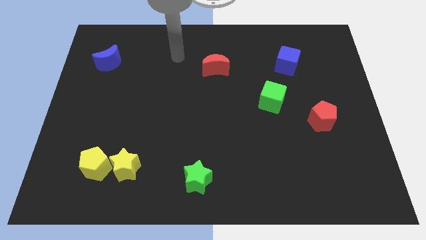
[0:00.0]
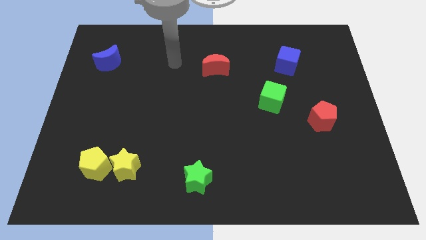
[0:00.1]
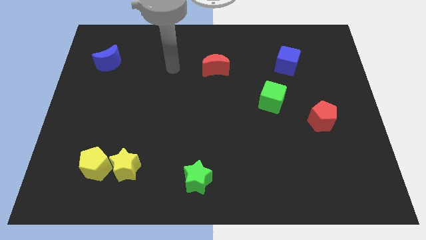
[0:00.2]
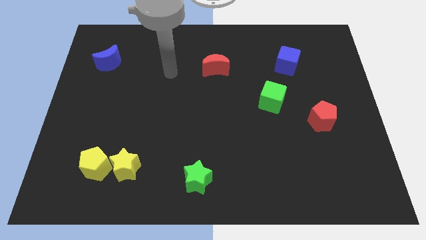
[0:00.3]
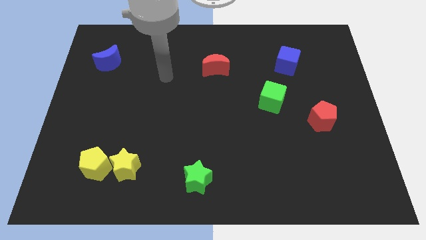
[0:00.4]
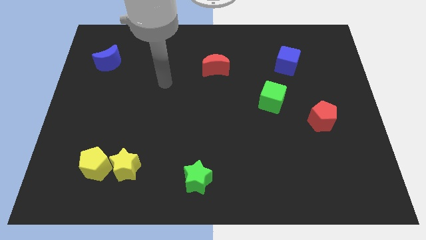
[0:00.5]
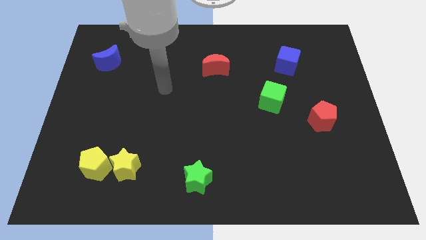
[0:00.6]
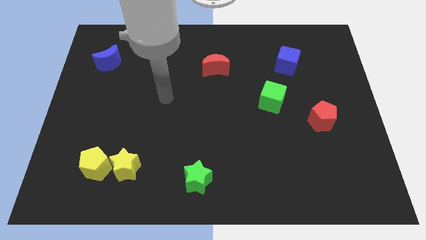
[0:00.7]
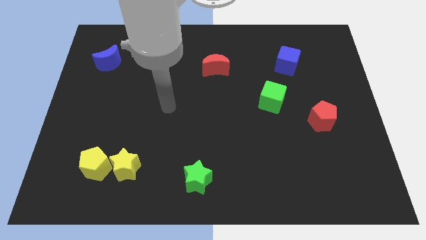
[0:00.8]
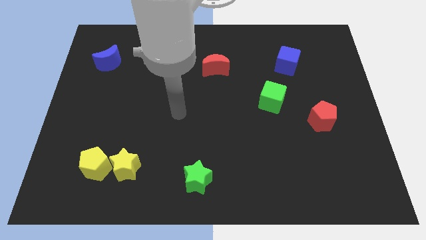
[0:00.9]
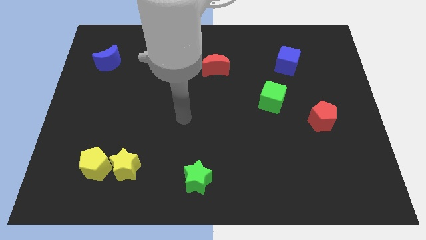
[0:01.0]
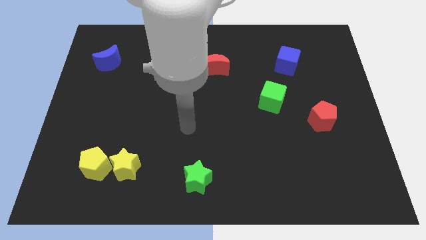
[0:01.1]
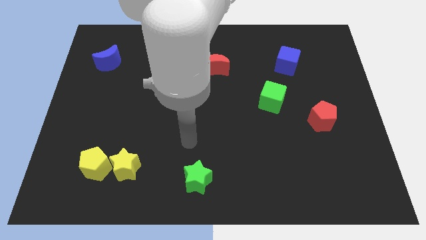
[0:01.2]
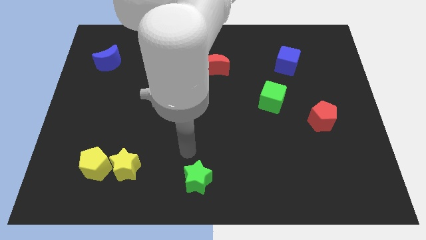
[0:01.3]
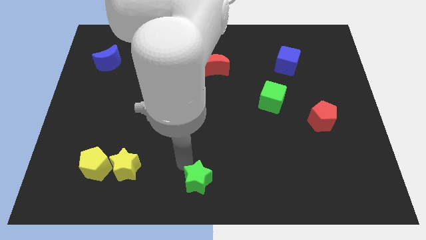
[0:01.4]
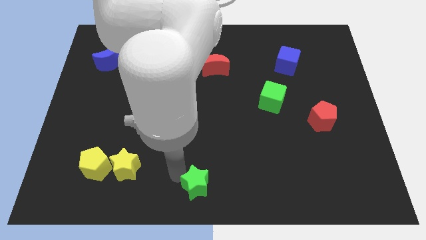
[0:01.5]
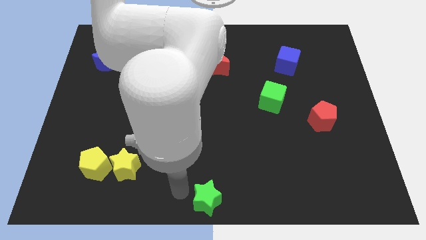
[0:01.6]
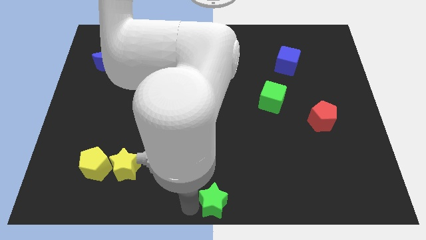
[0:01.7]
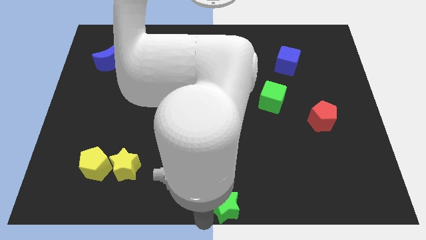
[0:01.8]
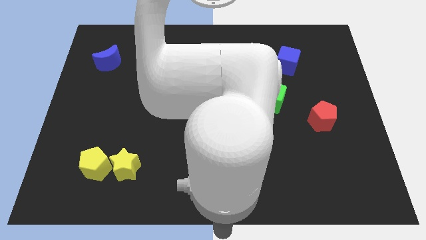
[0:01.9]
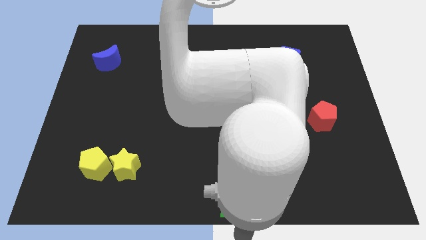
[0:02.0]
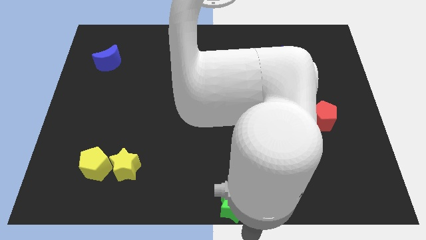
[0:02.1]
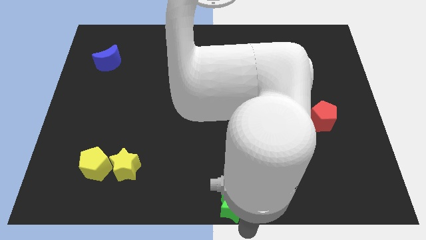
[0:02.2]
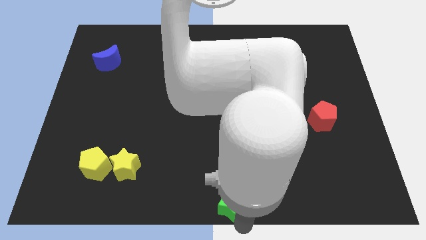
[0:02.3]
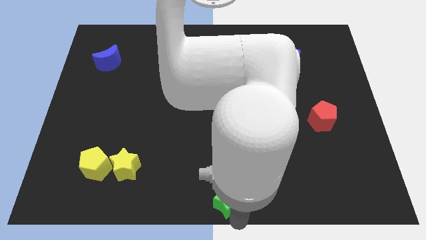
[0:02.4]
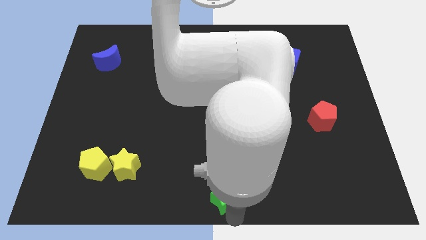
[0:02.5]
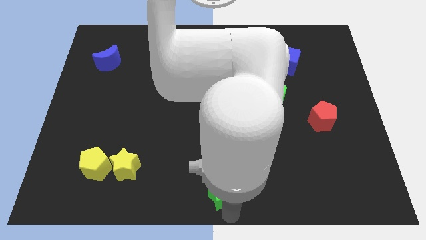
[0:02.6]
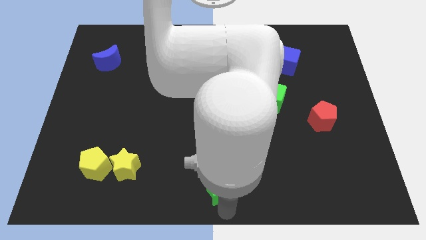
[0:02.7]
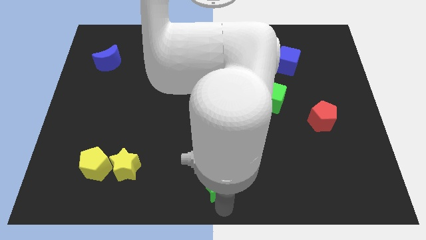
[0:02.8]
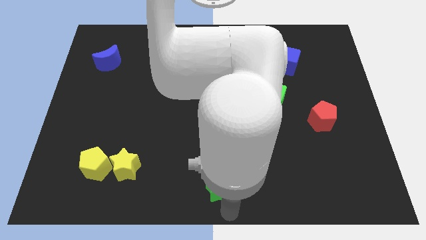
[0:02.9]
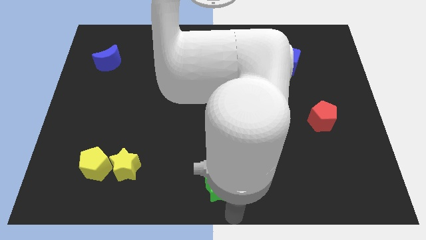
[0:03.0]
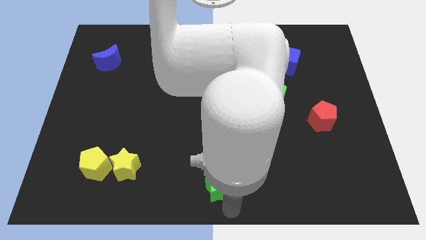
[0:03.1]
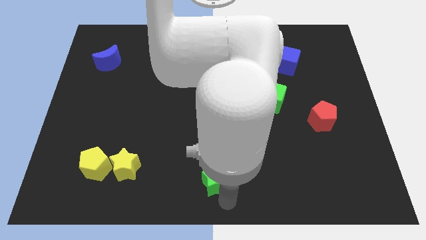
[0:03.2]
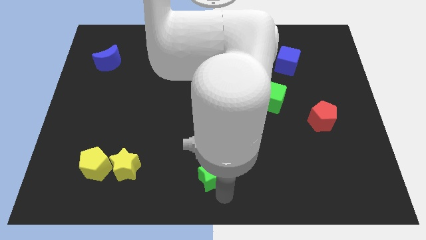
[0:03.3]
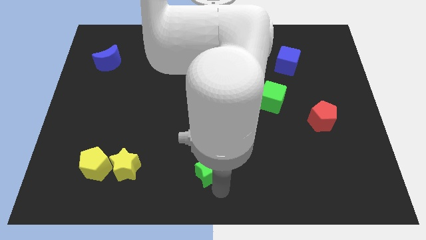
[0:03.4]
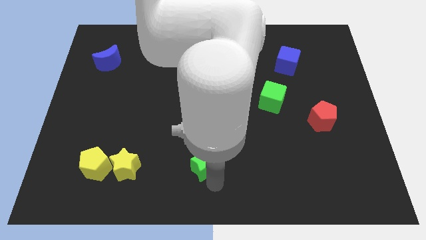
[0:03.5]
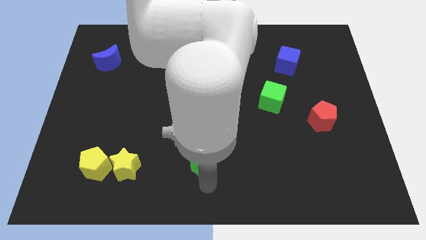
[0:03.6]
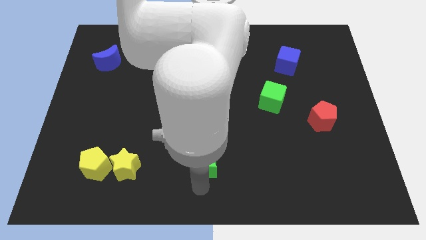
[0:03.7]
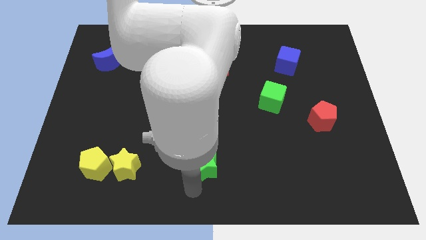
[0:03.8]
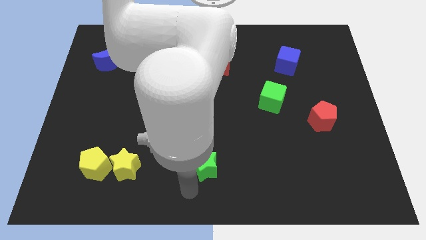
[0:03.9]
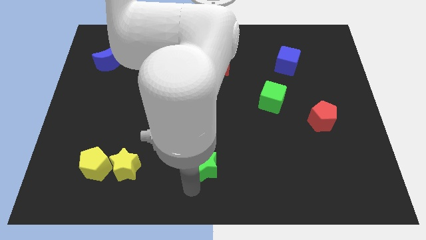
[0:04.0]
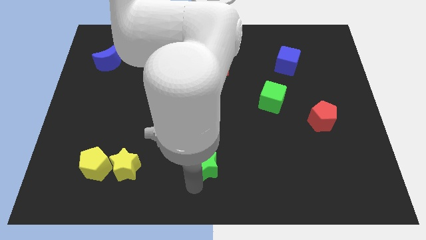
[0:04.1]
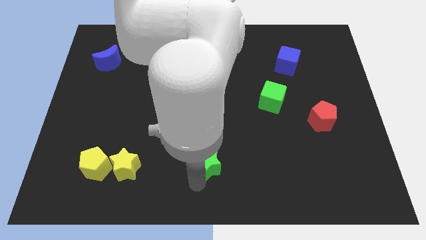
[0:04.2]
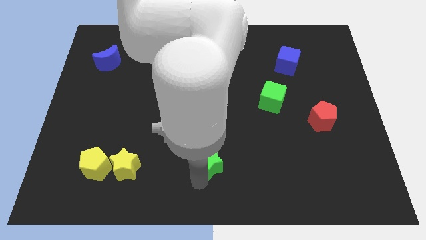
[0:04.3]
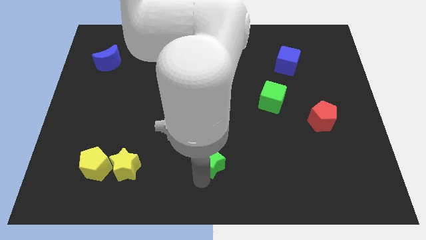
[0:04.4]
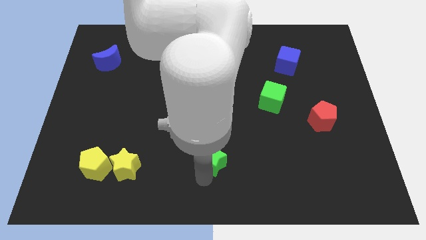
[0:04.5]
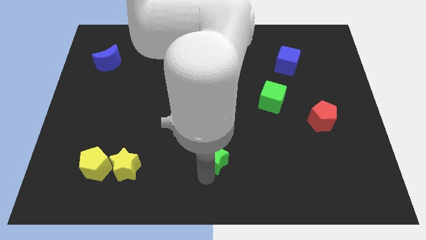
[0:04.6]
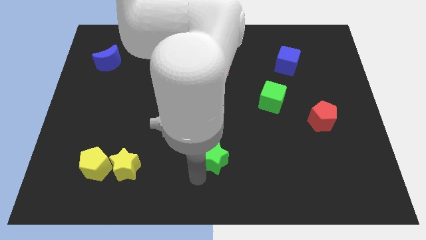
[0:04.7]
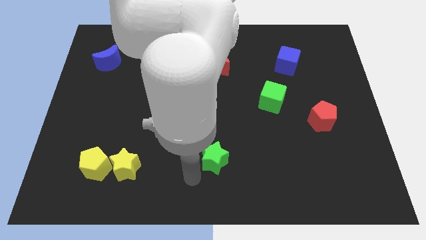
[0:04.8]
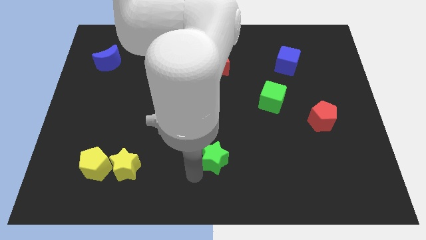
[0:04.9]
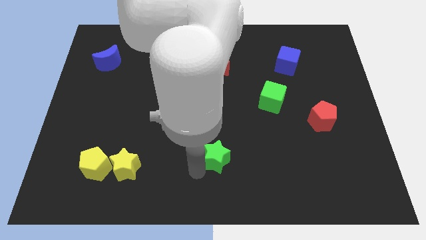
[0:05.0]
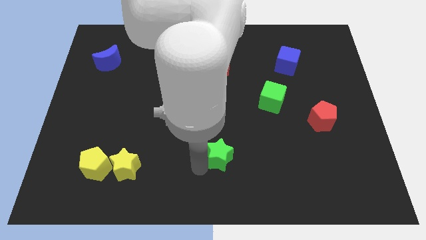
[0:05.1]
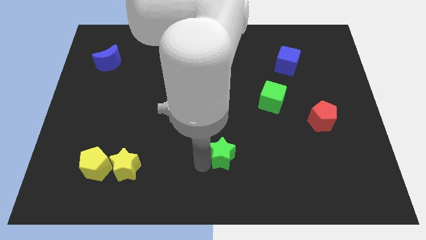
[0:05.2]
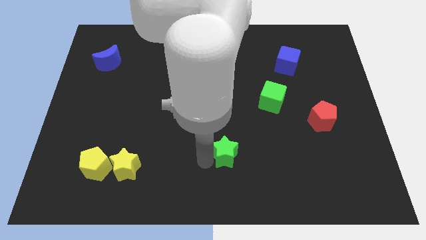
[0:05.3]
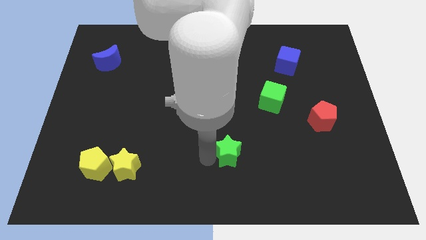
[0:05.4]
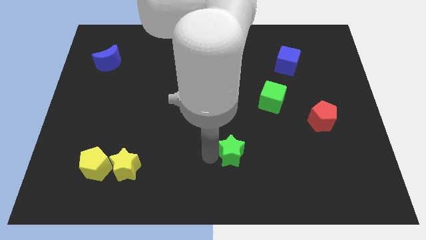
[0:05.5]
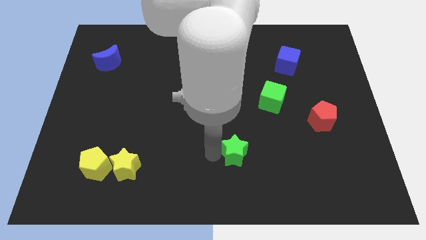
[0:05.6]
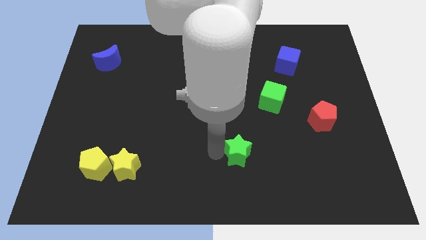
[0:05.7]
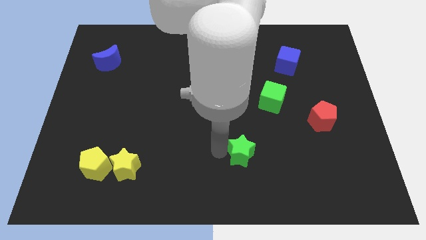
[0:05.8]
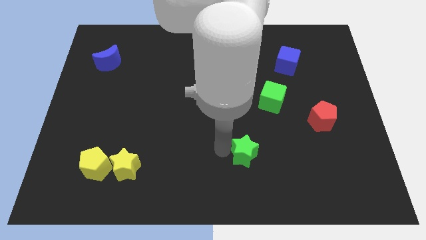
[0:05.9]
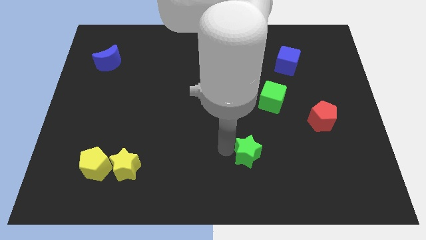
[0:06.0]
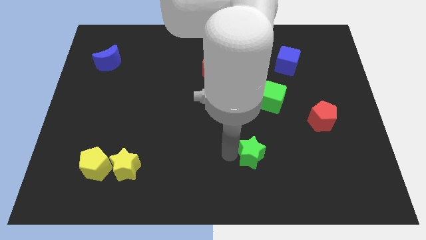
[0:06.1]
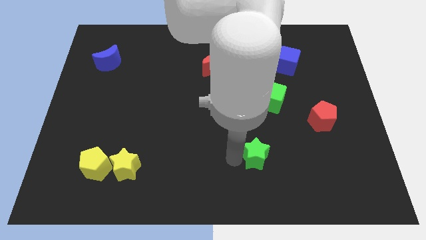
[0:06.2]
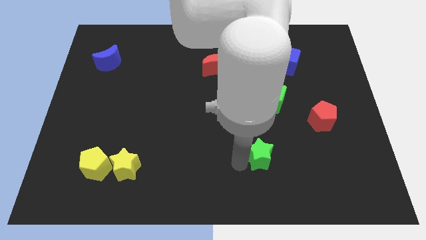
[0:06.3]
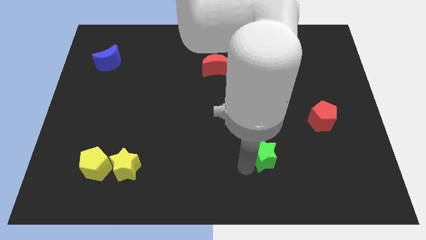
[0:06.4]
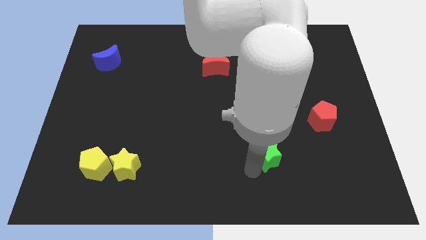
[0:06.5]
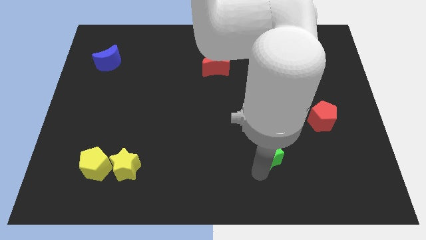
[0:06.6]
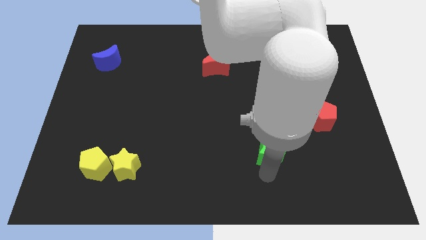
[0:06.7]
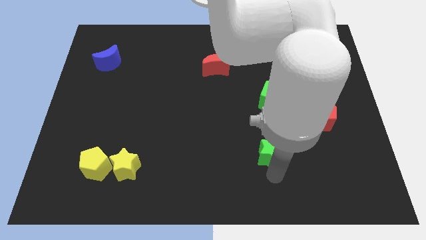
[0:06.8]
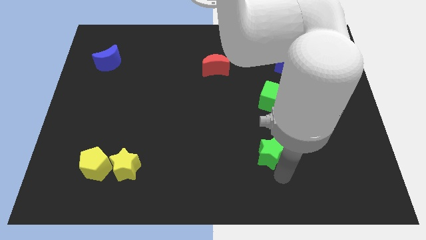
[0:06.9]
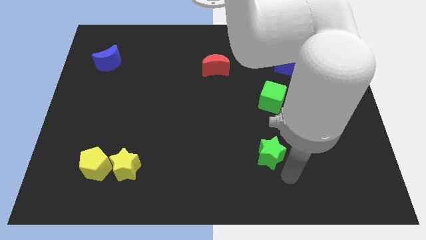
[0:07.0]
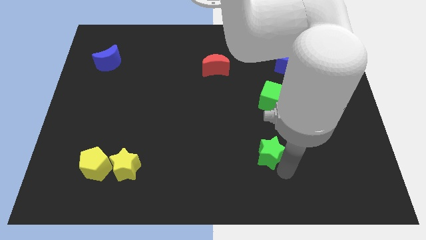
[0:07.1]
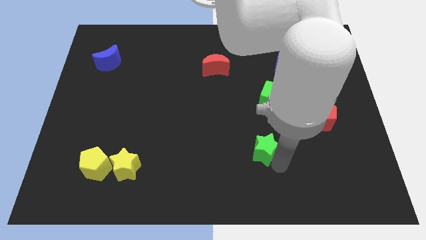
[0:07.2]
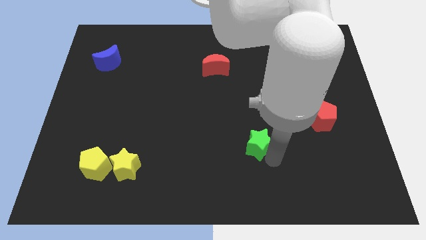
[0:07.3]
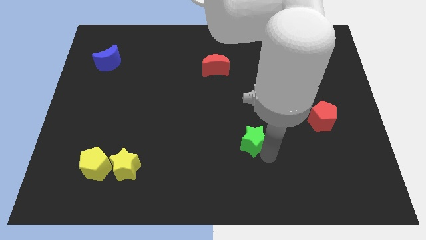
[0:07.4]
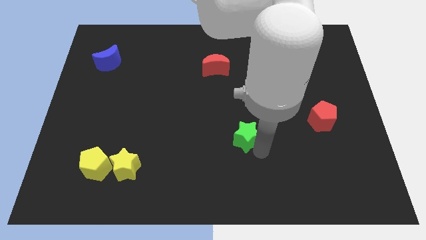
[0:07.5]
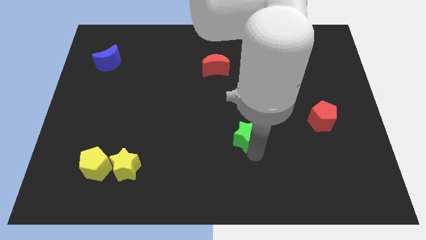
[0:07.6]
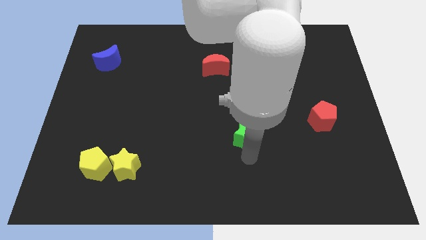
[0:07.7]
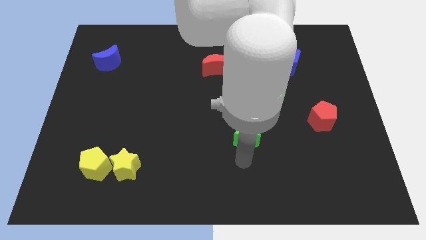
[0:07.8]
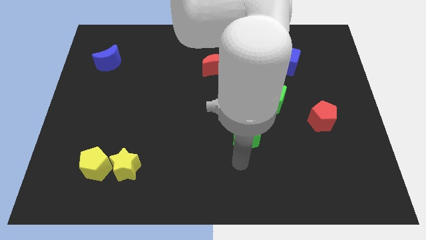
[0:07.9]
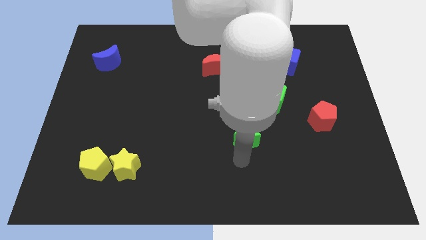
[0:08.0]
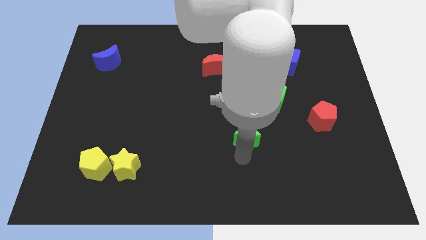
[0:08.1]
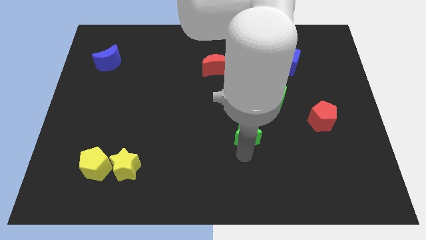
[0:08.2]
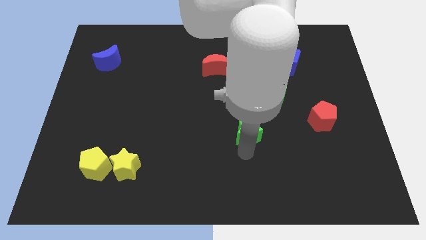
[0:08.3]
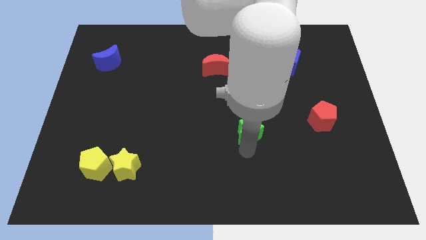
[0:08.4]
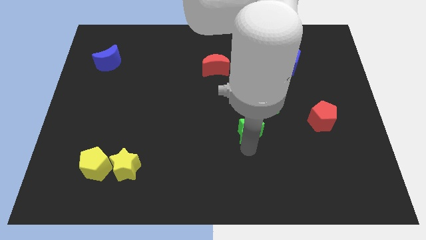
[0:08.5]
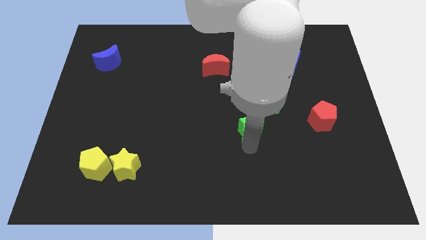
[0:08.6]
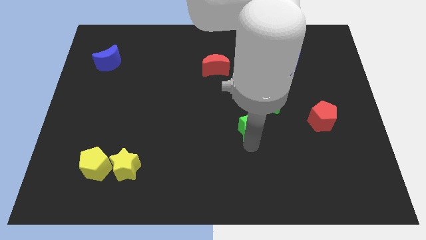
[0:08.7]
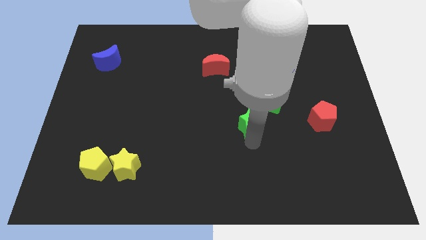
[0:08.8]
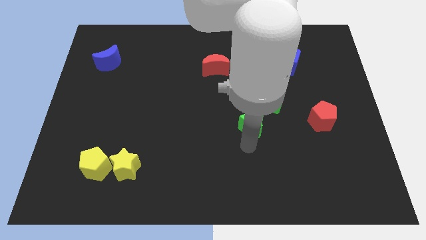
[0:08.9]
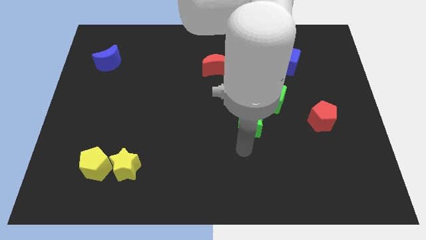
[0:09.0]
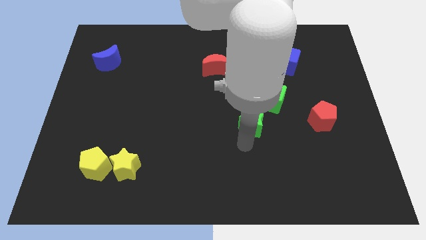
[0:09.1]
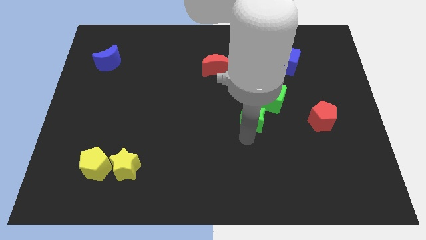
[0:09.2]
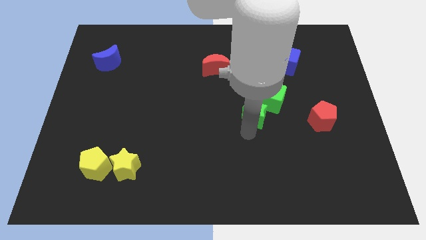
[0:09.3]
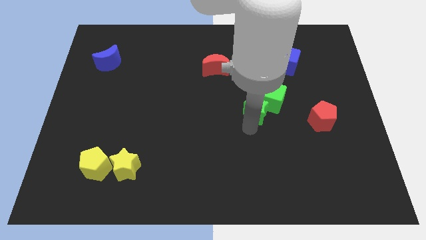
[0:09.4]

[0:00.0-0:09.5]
move the green star towards the green cube
